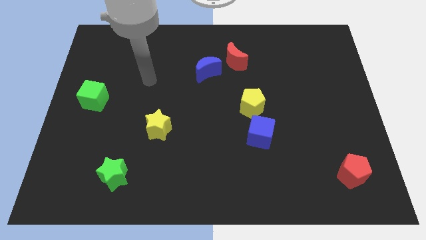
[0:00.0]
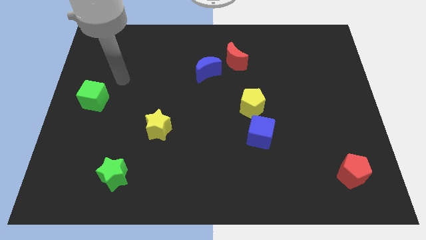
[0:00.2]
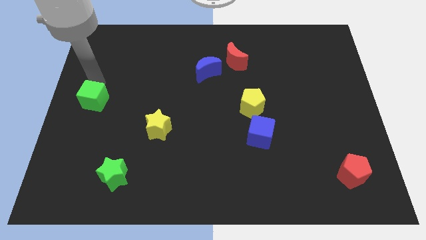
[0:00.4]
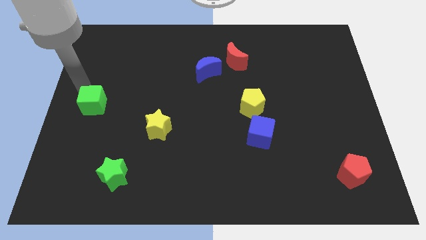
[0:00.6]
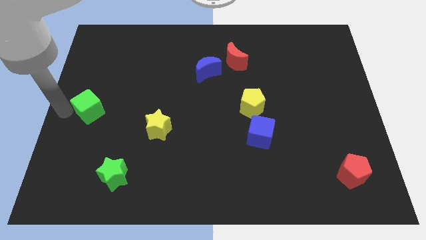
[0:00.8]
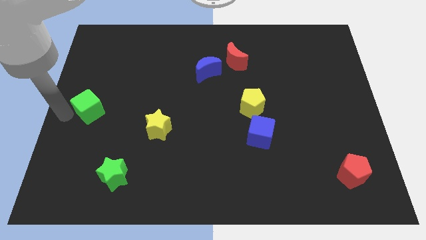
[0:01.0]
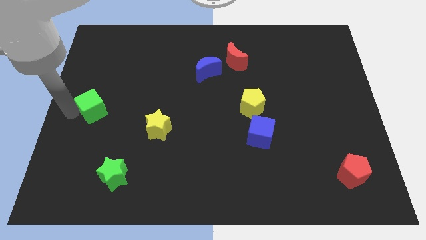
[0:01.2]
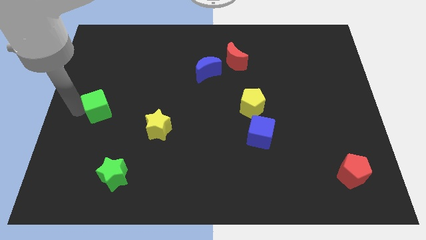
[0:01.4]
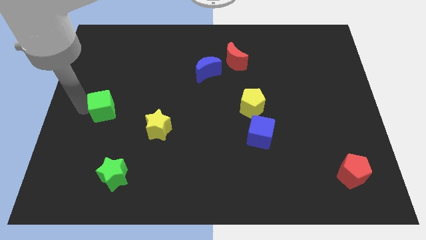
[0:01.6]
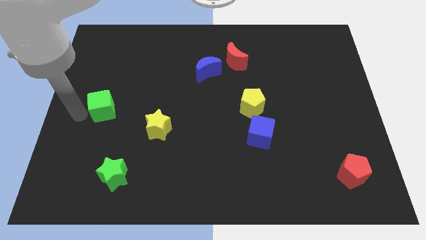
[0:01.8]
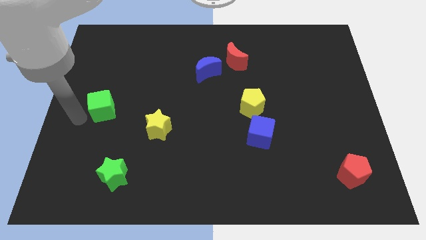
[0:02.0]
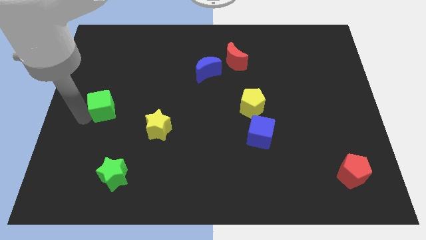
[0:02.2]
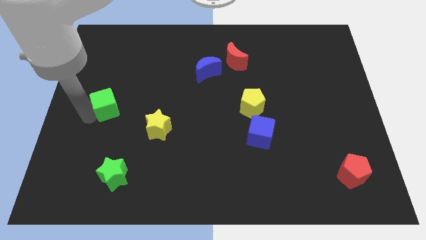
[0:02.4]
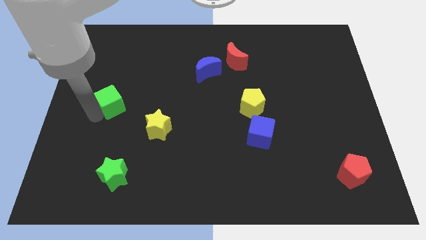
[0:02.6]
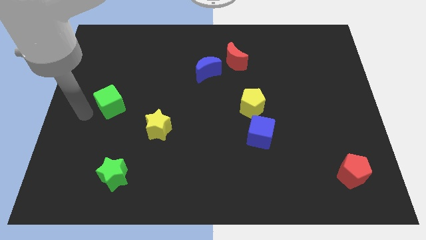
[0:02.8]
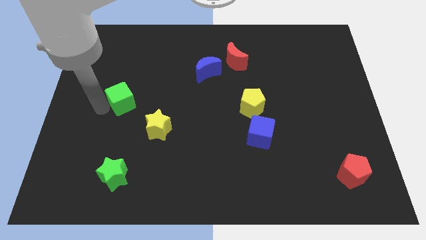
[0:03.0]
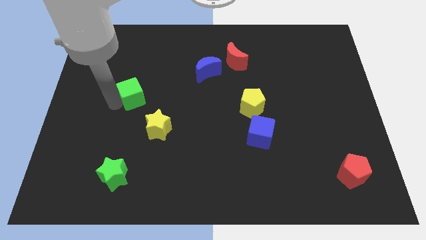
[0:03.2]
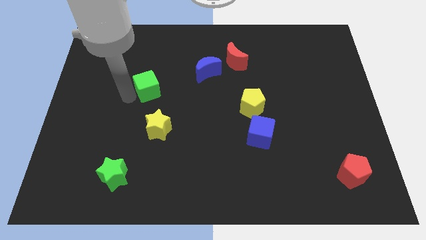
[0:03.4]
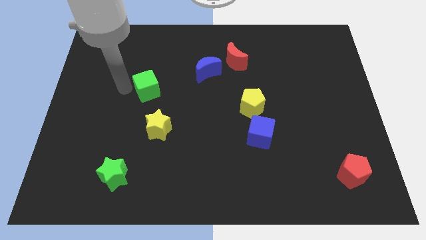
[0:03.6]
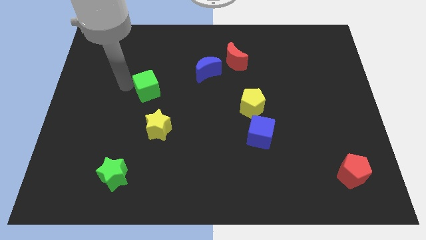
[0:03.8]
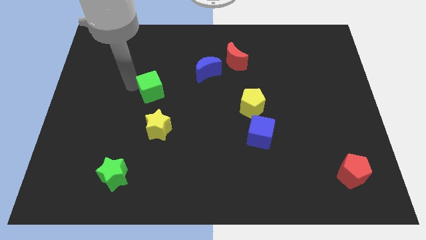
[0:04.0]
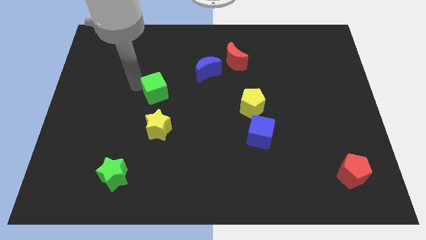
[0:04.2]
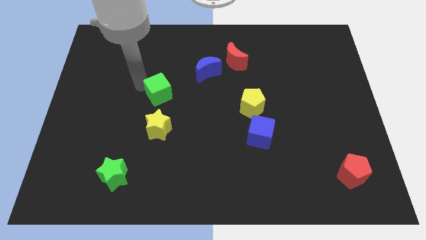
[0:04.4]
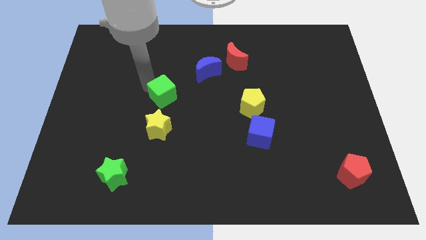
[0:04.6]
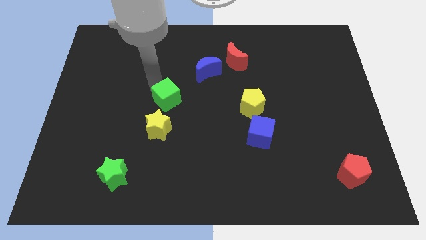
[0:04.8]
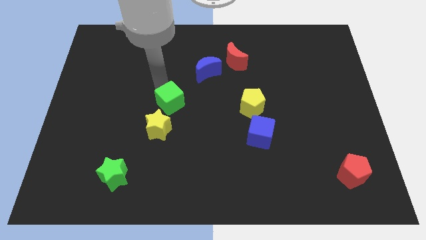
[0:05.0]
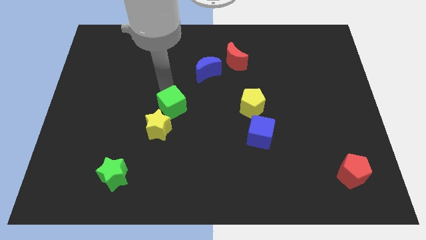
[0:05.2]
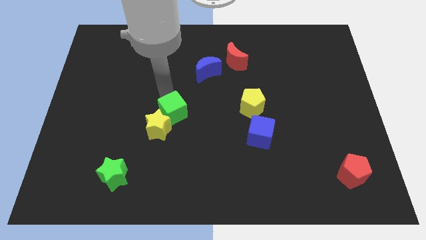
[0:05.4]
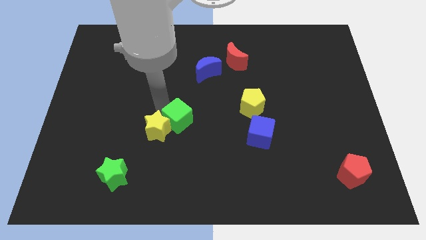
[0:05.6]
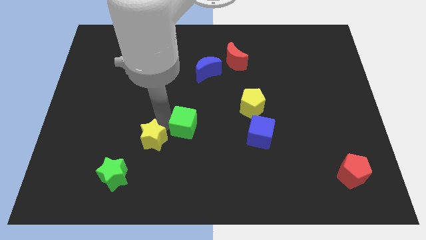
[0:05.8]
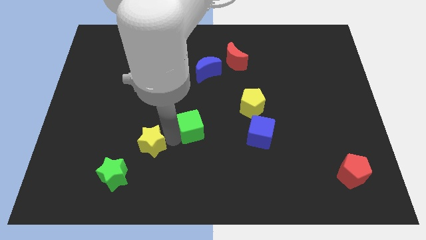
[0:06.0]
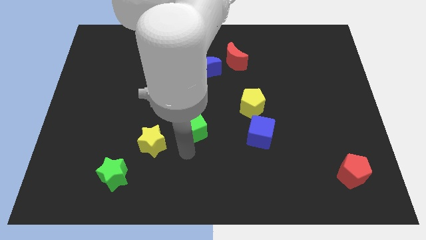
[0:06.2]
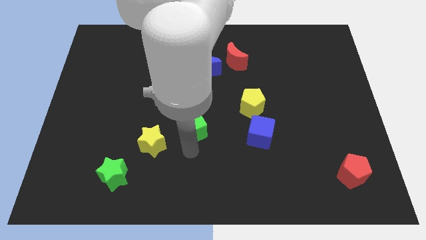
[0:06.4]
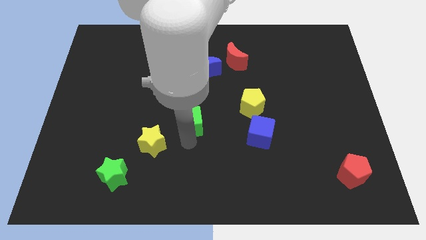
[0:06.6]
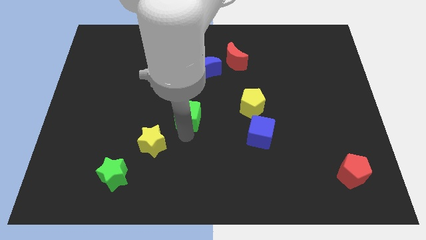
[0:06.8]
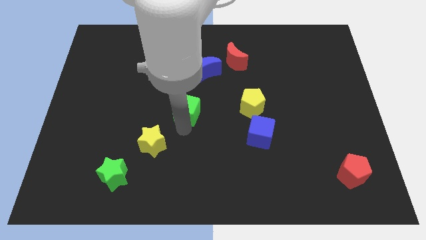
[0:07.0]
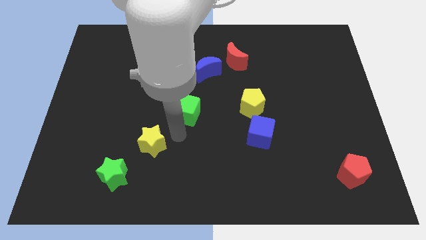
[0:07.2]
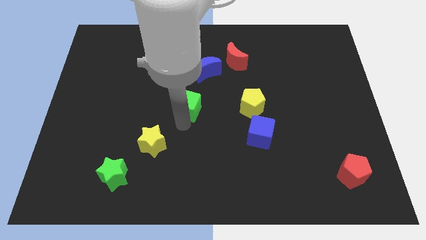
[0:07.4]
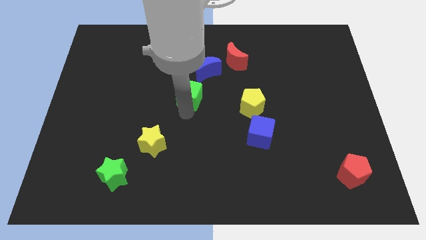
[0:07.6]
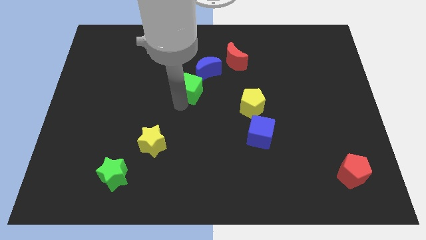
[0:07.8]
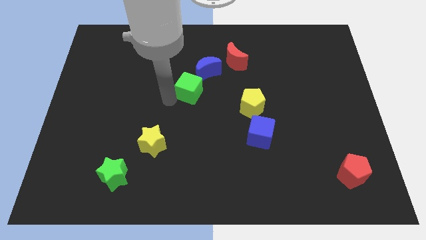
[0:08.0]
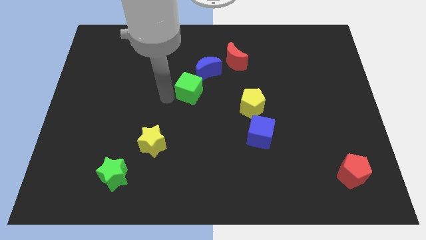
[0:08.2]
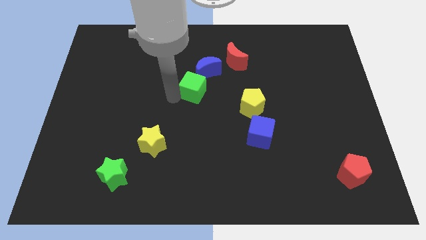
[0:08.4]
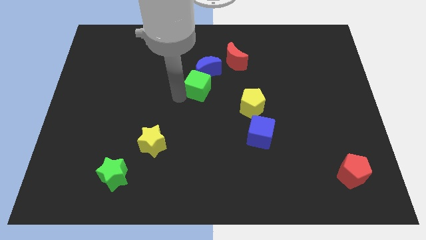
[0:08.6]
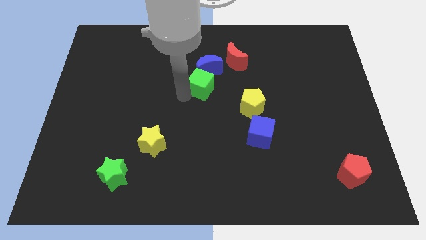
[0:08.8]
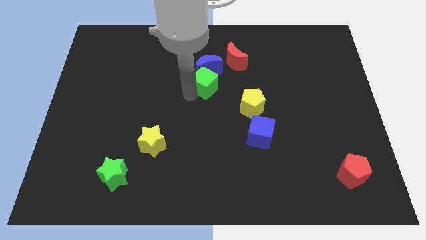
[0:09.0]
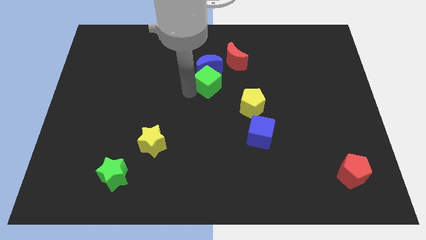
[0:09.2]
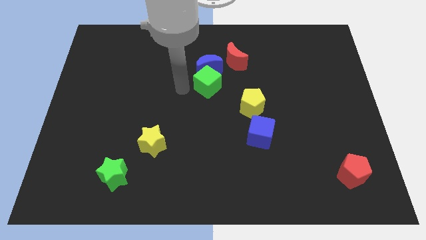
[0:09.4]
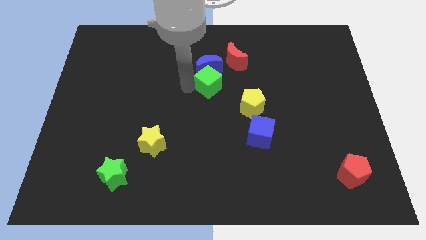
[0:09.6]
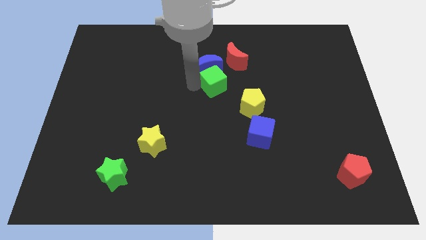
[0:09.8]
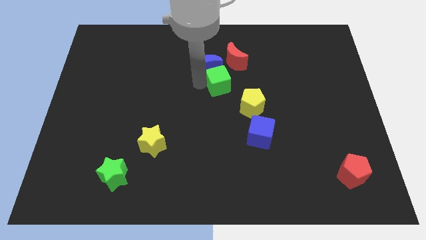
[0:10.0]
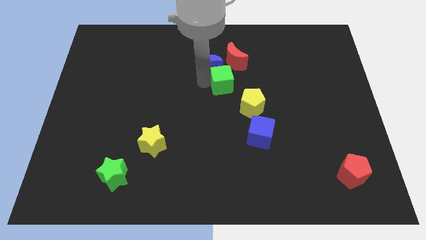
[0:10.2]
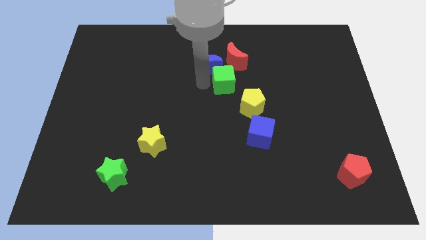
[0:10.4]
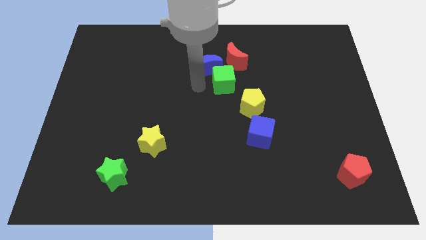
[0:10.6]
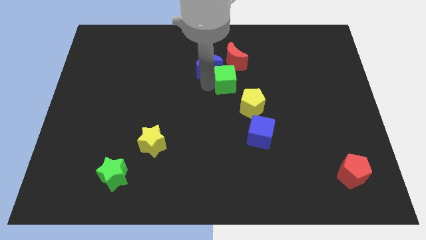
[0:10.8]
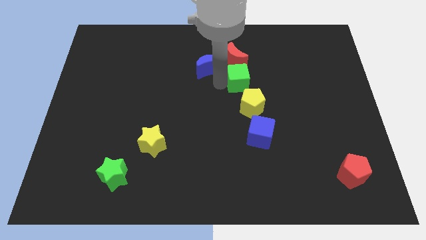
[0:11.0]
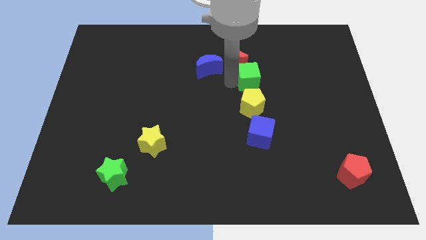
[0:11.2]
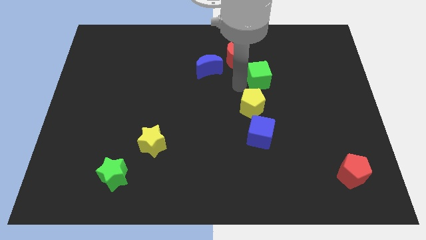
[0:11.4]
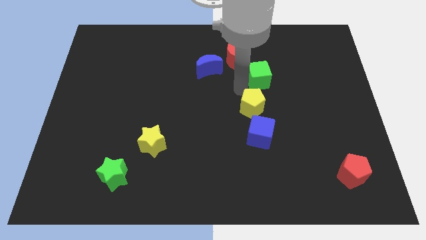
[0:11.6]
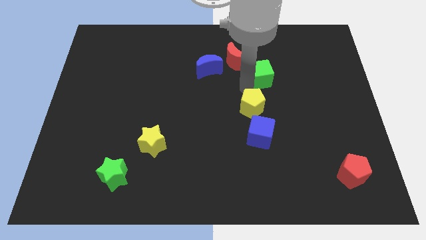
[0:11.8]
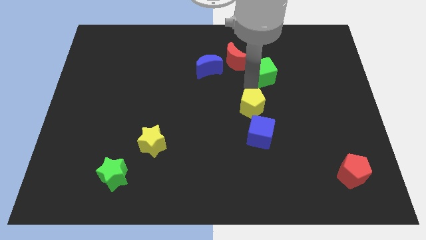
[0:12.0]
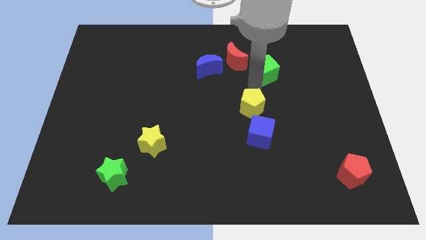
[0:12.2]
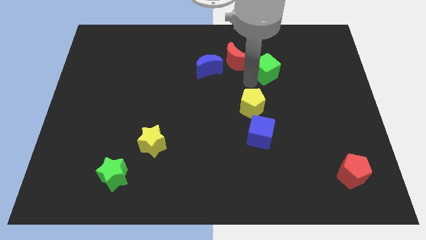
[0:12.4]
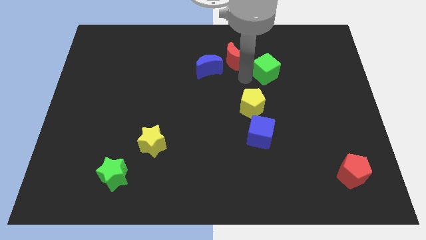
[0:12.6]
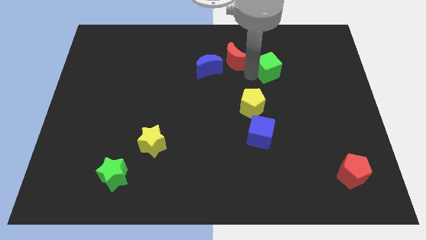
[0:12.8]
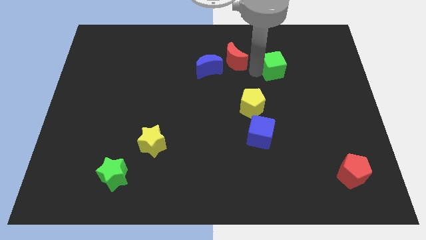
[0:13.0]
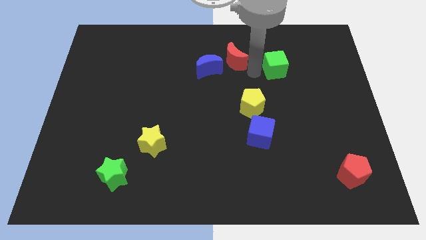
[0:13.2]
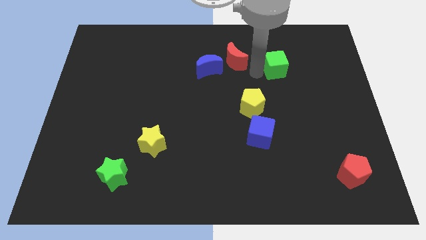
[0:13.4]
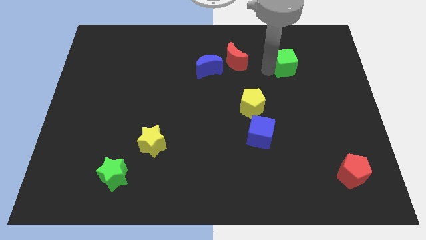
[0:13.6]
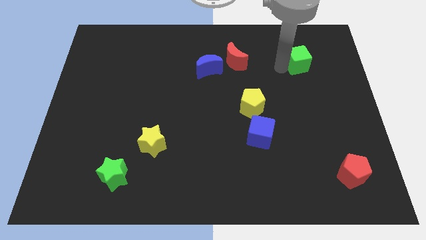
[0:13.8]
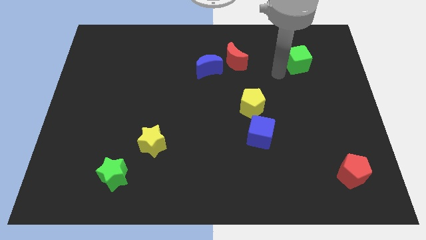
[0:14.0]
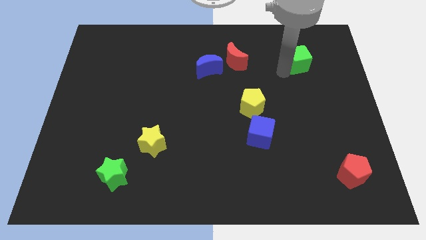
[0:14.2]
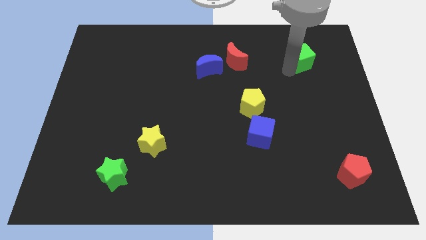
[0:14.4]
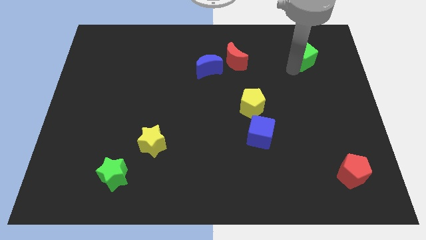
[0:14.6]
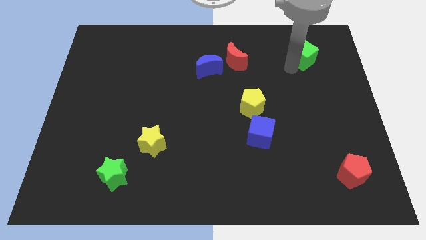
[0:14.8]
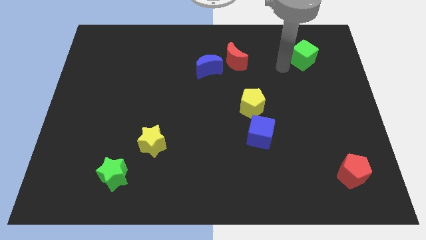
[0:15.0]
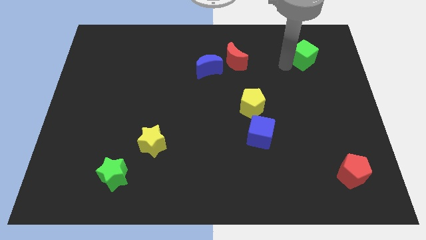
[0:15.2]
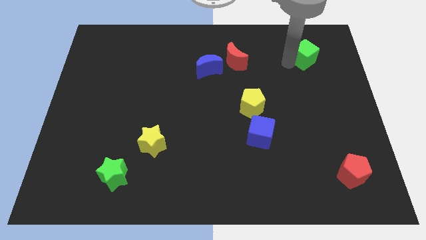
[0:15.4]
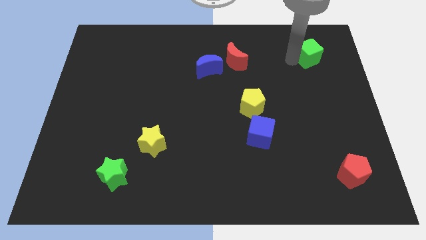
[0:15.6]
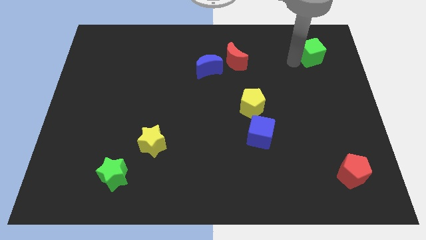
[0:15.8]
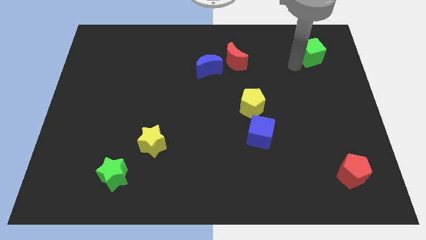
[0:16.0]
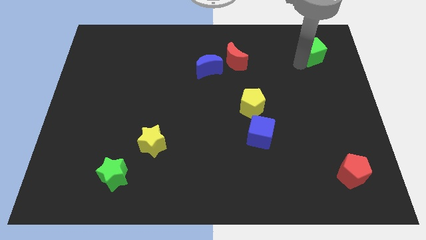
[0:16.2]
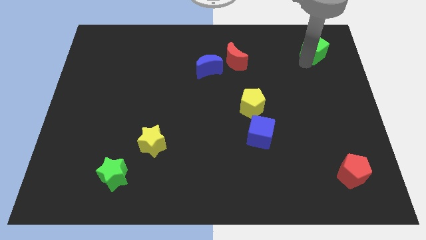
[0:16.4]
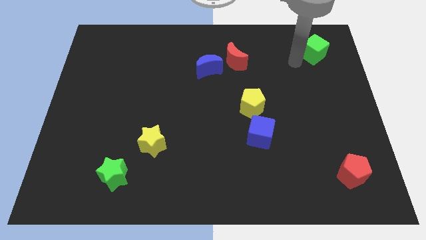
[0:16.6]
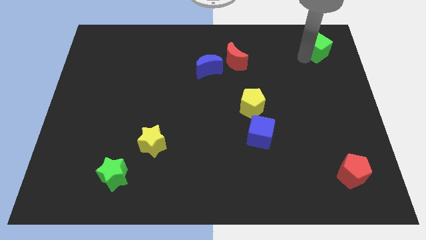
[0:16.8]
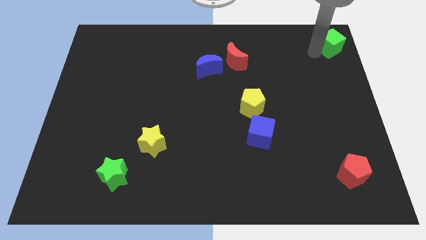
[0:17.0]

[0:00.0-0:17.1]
move the green cube to the top right of the board

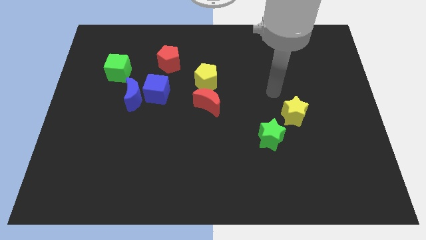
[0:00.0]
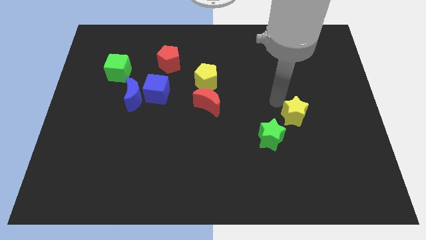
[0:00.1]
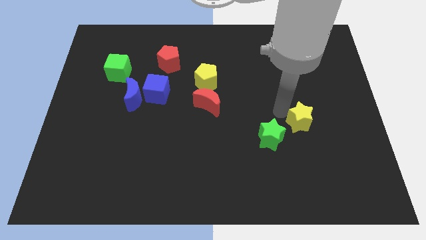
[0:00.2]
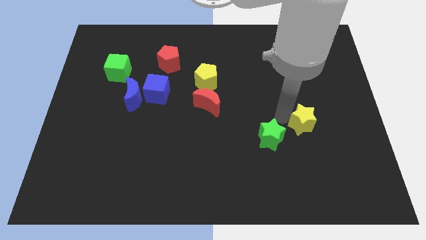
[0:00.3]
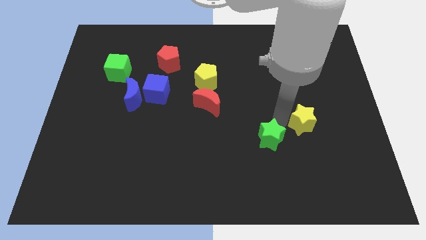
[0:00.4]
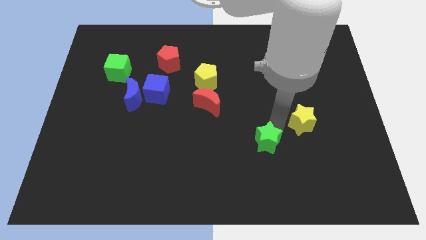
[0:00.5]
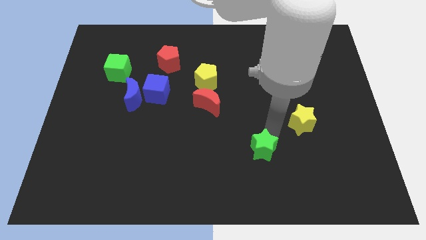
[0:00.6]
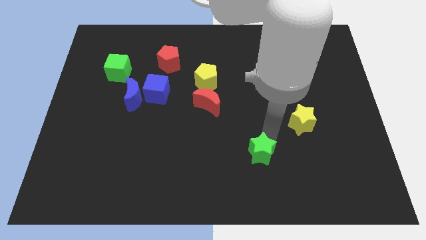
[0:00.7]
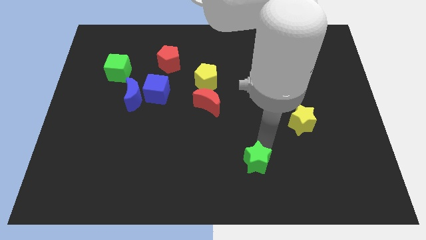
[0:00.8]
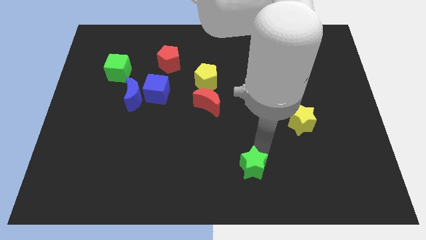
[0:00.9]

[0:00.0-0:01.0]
move the green star to the bottom
